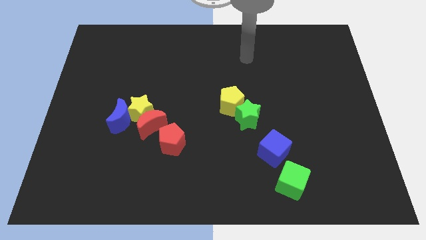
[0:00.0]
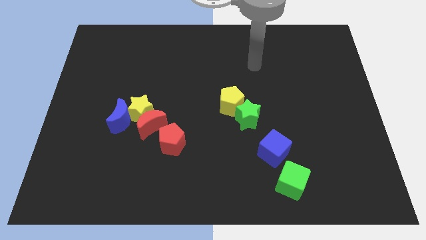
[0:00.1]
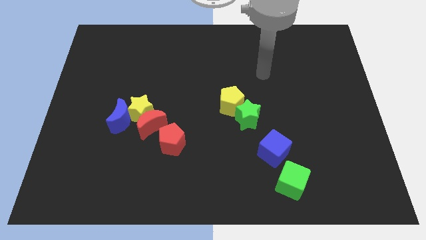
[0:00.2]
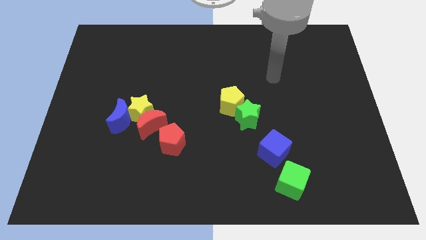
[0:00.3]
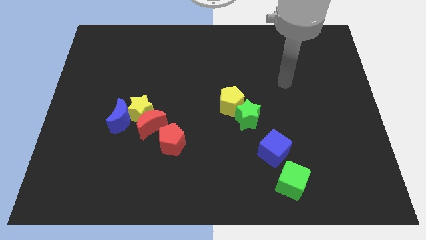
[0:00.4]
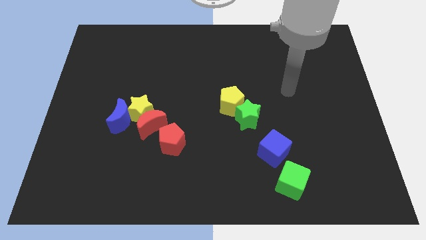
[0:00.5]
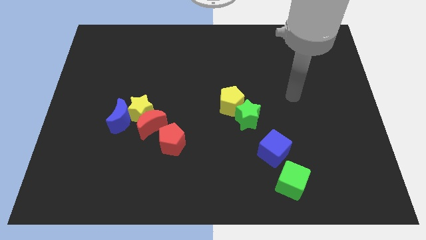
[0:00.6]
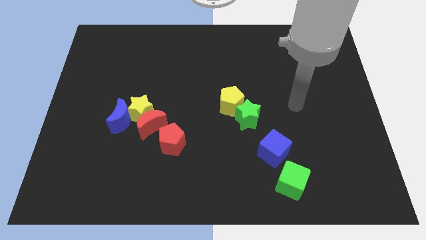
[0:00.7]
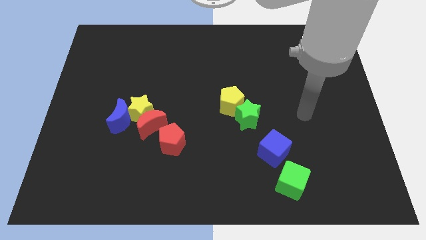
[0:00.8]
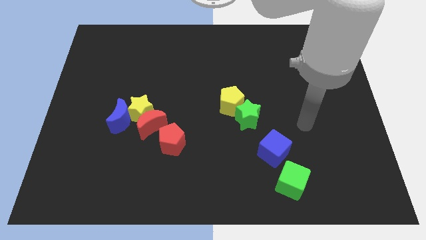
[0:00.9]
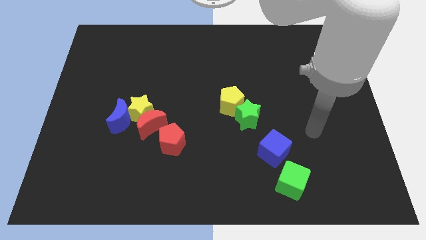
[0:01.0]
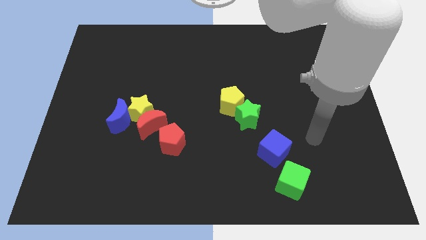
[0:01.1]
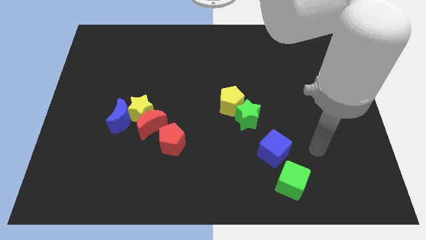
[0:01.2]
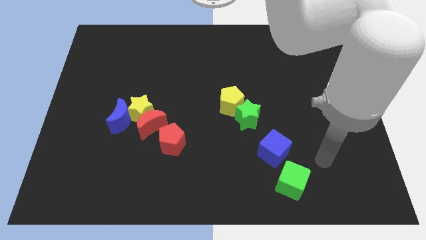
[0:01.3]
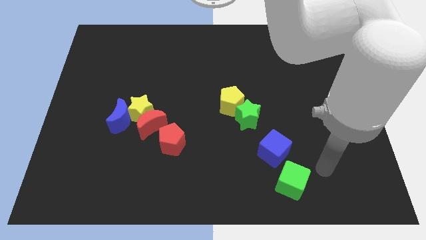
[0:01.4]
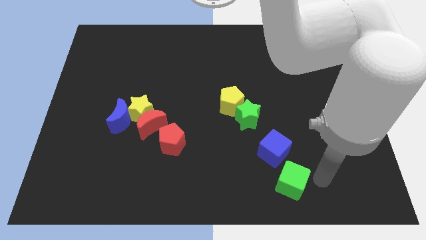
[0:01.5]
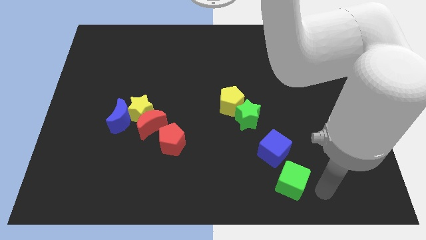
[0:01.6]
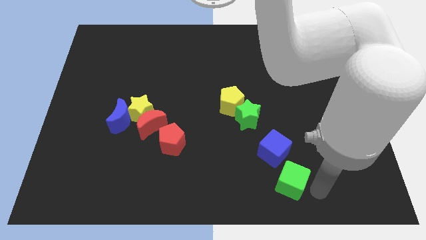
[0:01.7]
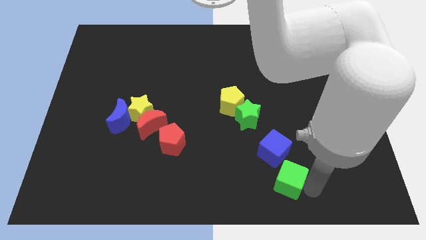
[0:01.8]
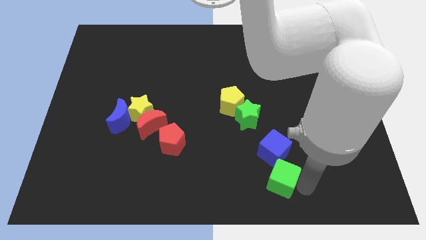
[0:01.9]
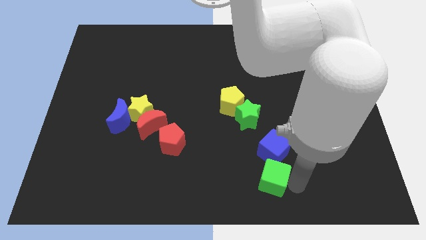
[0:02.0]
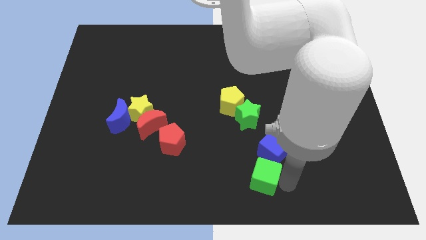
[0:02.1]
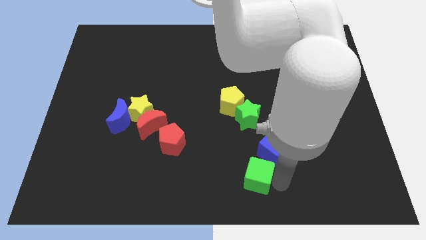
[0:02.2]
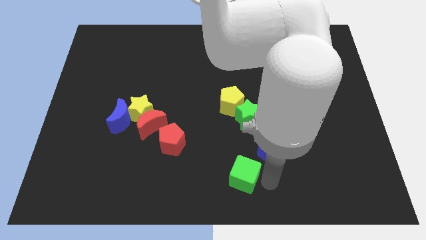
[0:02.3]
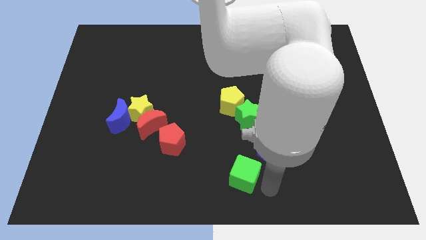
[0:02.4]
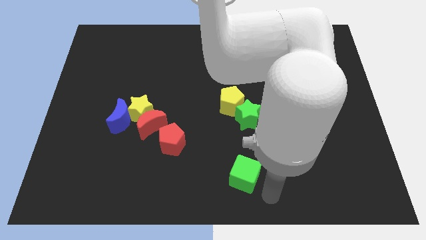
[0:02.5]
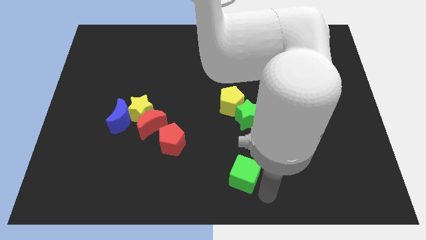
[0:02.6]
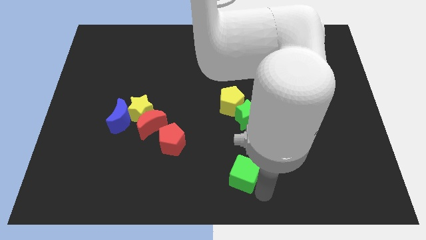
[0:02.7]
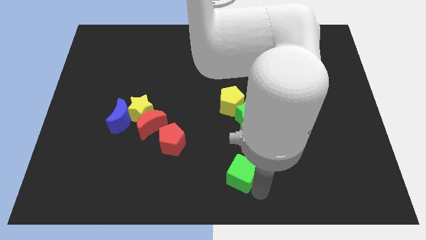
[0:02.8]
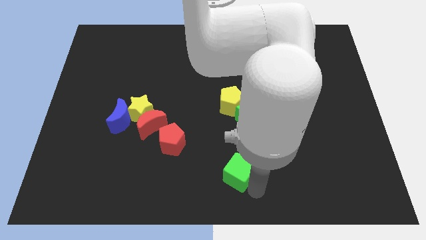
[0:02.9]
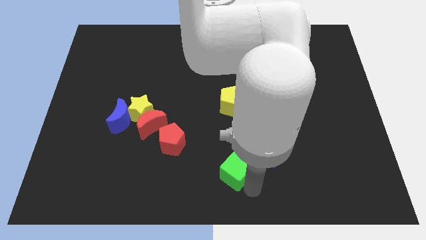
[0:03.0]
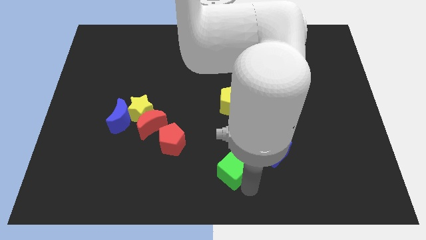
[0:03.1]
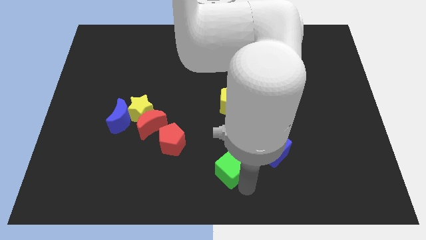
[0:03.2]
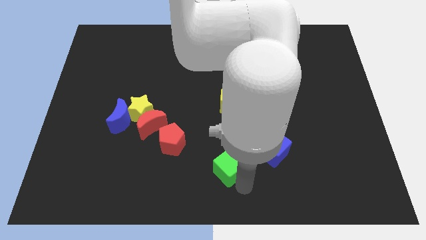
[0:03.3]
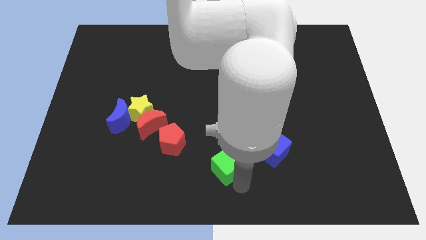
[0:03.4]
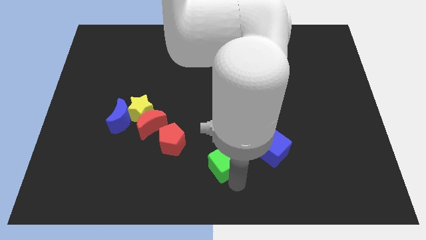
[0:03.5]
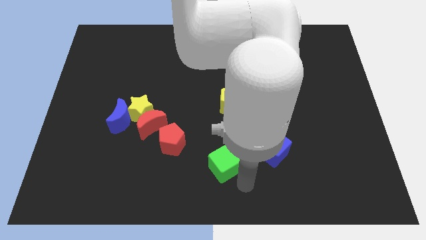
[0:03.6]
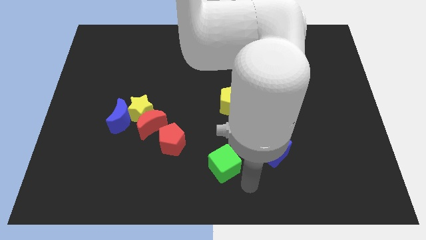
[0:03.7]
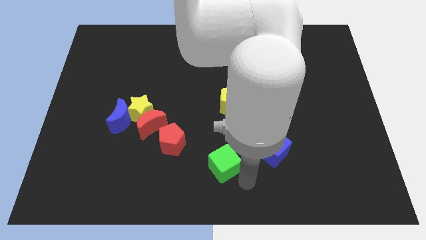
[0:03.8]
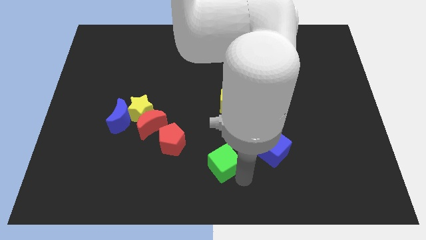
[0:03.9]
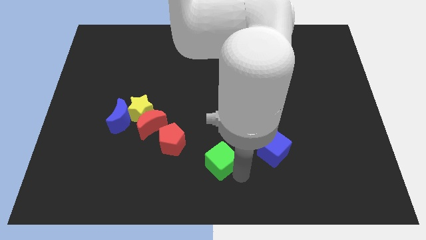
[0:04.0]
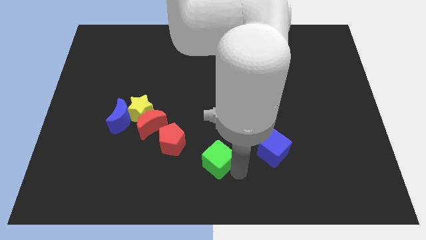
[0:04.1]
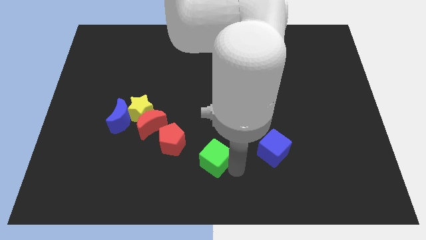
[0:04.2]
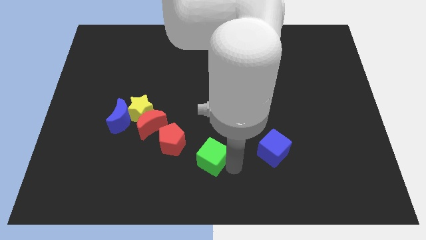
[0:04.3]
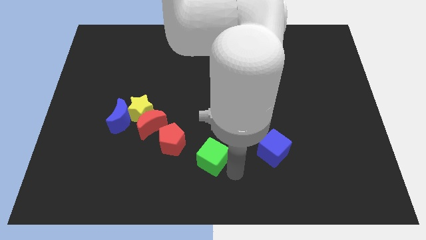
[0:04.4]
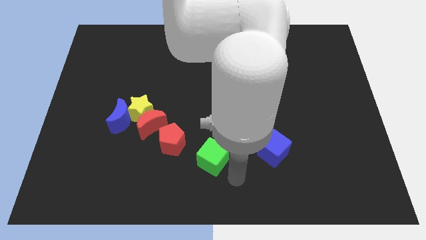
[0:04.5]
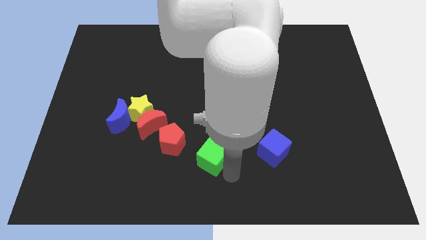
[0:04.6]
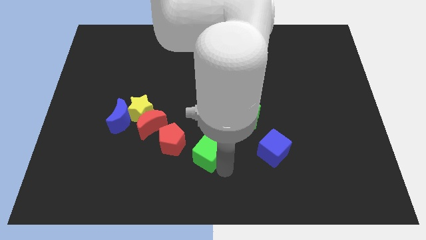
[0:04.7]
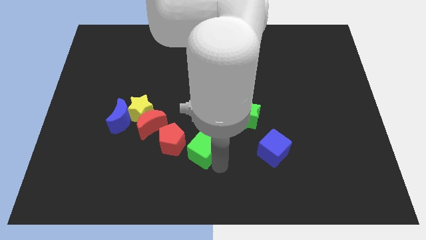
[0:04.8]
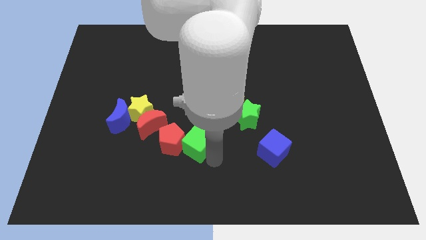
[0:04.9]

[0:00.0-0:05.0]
move the green cube close to the red pentagon

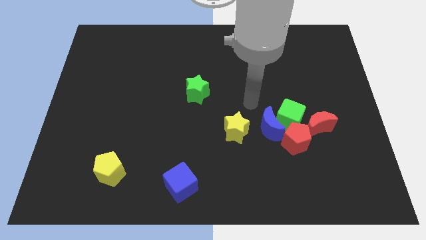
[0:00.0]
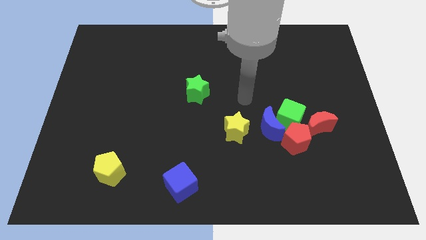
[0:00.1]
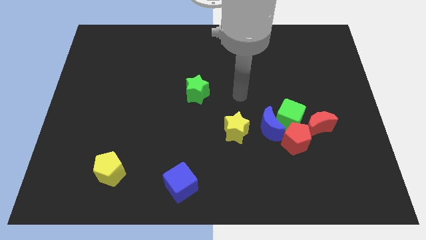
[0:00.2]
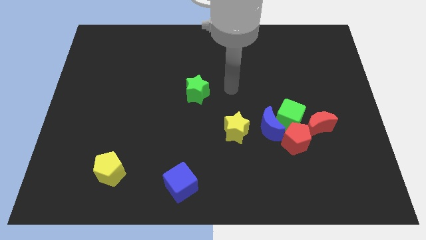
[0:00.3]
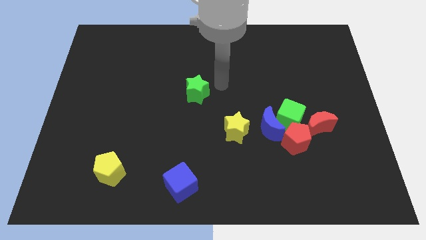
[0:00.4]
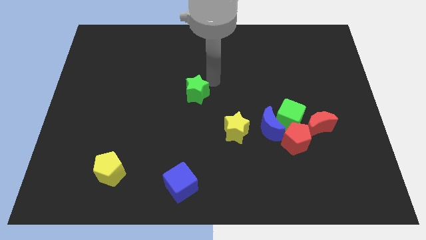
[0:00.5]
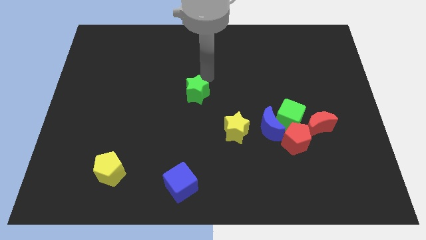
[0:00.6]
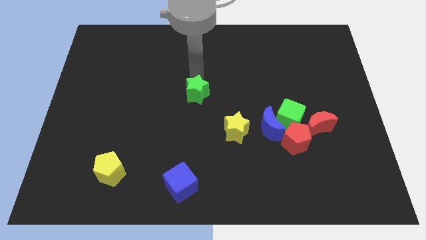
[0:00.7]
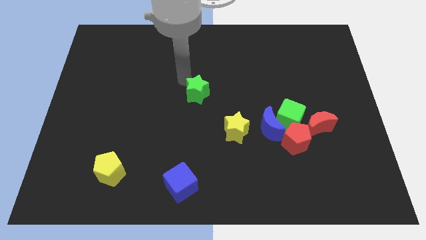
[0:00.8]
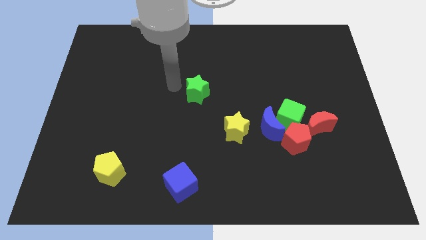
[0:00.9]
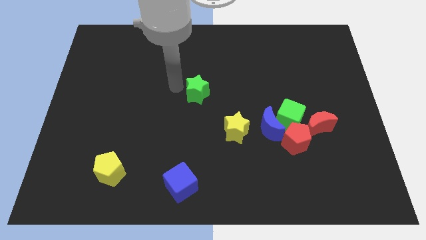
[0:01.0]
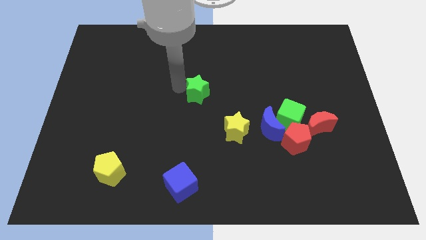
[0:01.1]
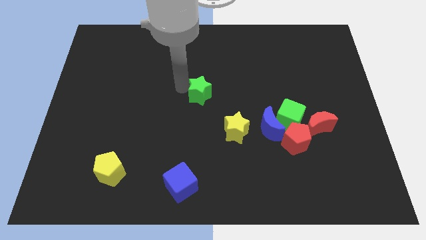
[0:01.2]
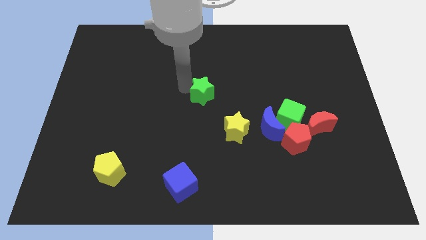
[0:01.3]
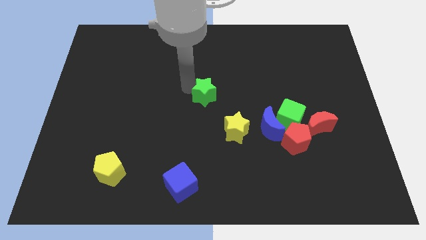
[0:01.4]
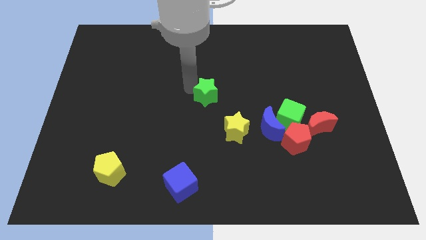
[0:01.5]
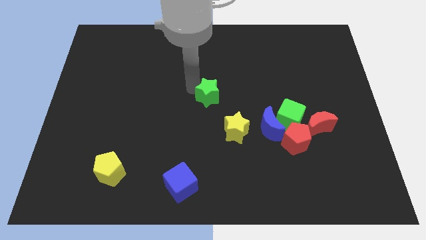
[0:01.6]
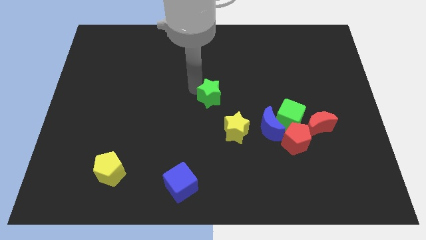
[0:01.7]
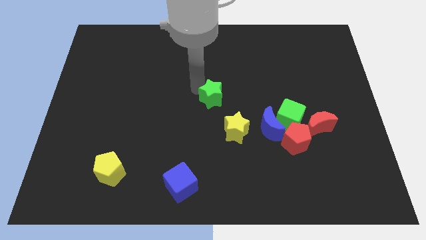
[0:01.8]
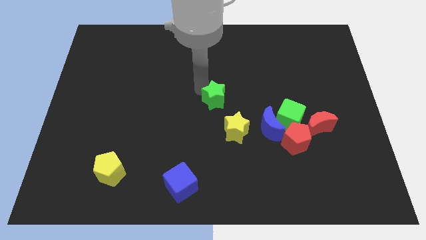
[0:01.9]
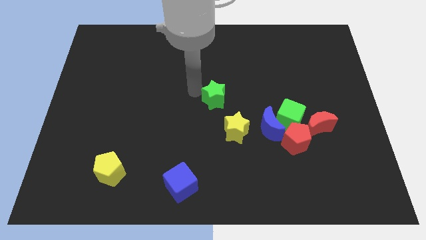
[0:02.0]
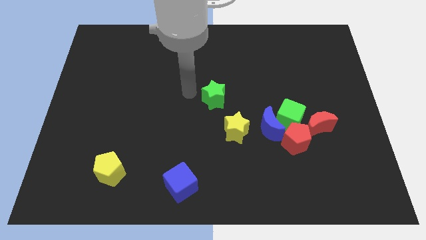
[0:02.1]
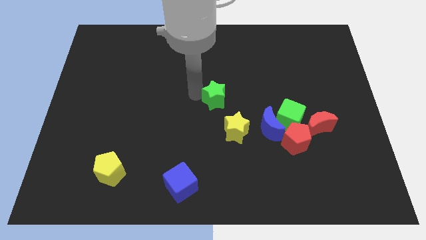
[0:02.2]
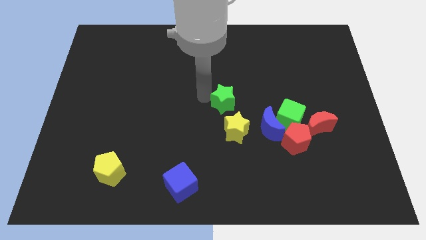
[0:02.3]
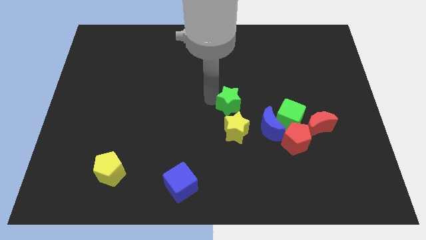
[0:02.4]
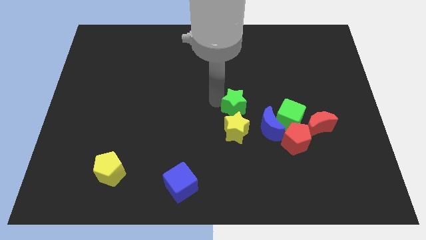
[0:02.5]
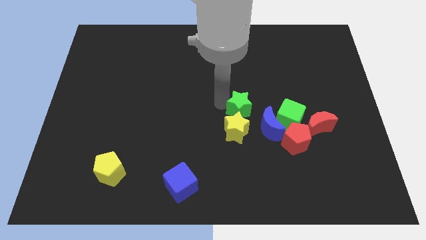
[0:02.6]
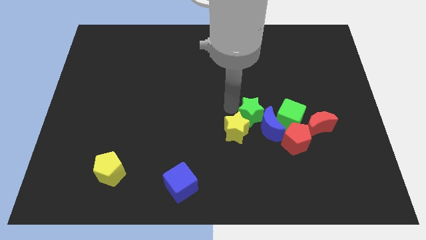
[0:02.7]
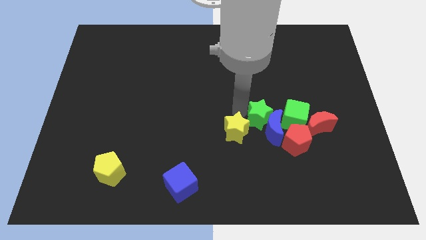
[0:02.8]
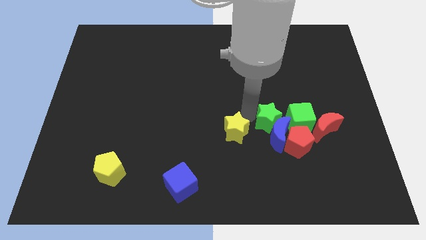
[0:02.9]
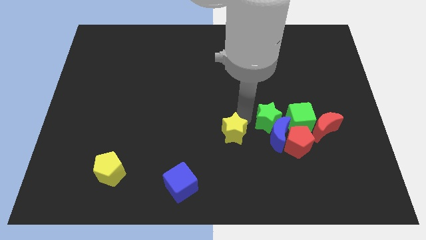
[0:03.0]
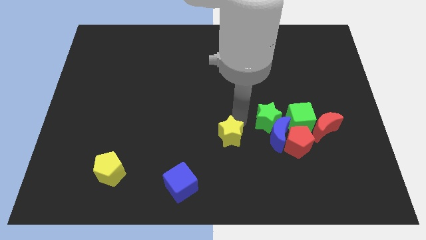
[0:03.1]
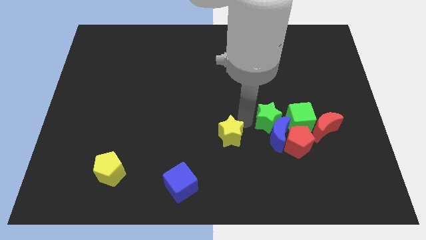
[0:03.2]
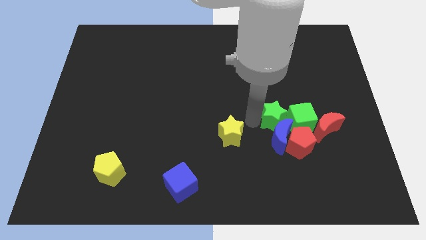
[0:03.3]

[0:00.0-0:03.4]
push the green star next to the green cube

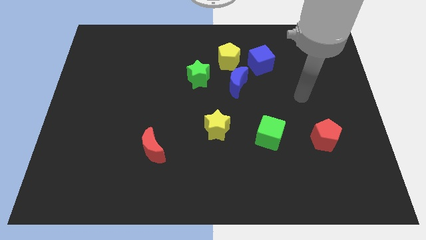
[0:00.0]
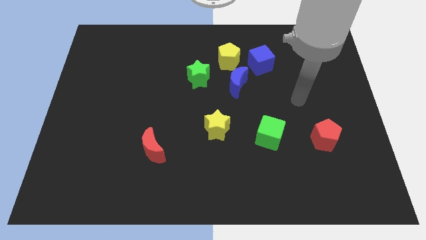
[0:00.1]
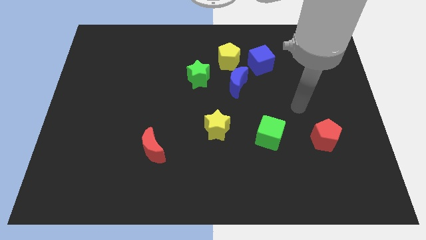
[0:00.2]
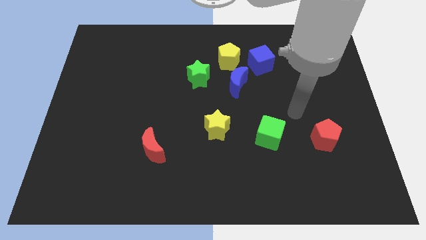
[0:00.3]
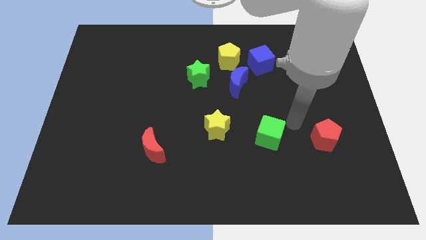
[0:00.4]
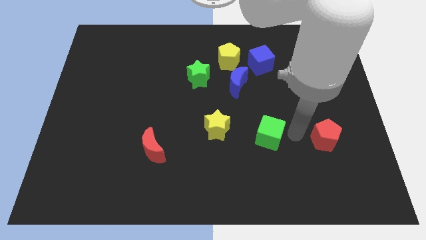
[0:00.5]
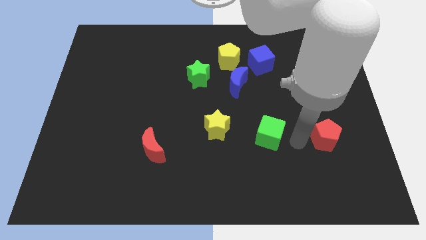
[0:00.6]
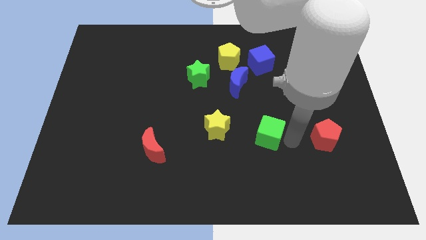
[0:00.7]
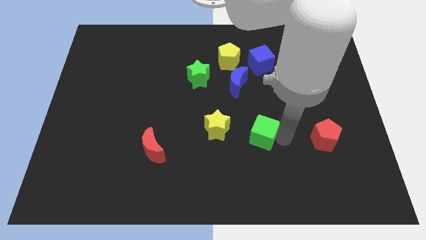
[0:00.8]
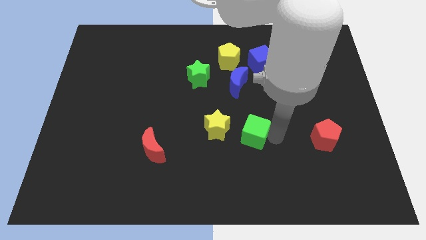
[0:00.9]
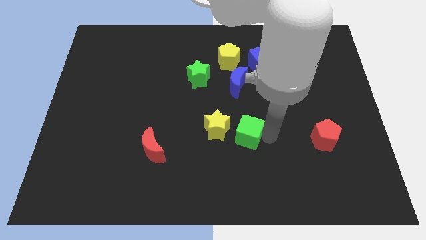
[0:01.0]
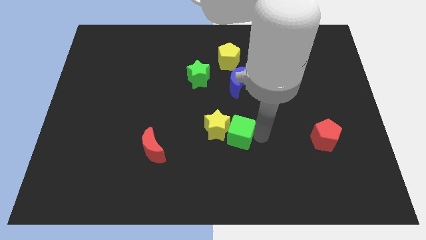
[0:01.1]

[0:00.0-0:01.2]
slide the green cube close to the yellow star
